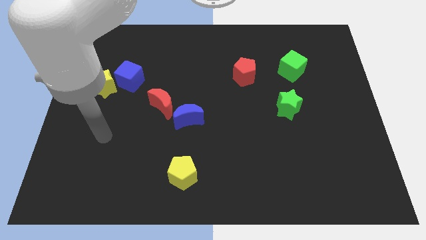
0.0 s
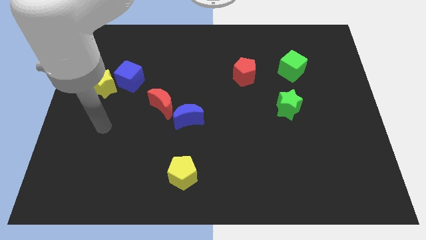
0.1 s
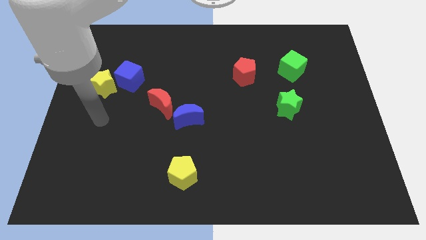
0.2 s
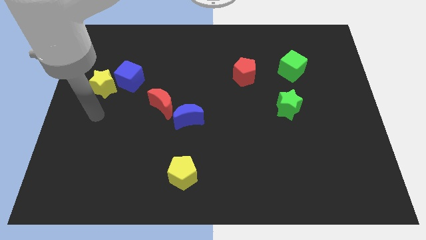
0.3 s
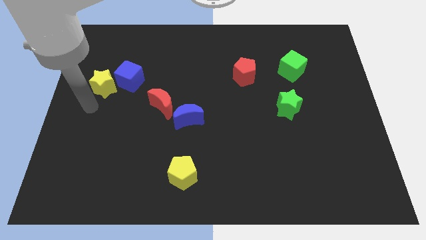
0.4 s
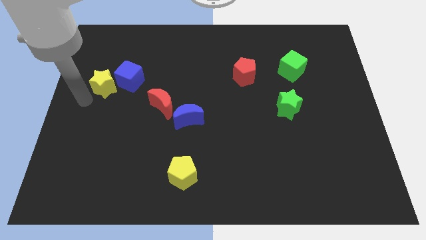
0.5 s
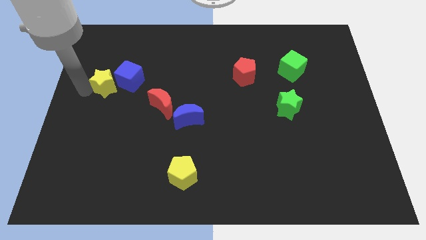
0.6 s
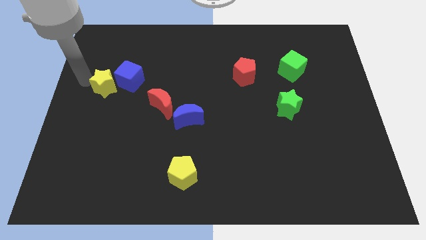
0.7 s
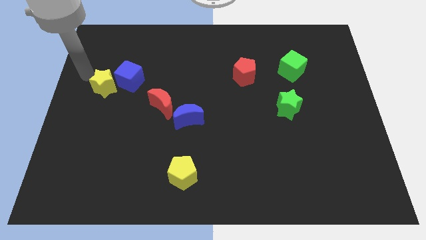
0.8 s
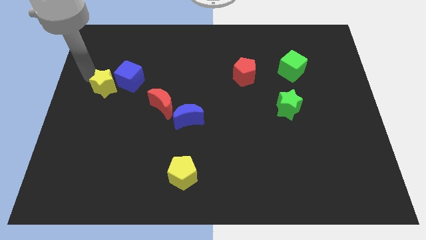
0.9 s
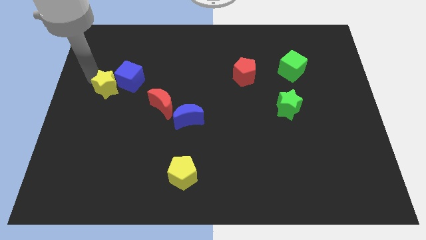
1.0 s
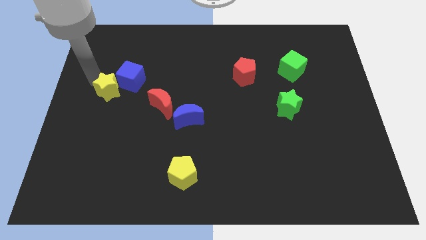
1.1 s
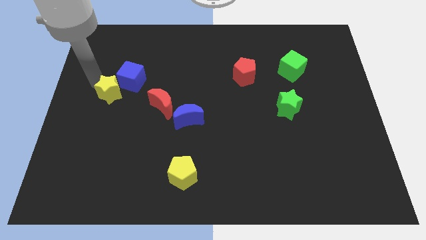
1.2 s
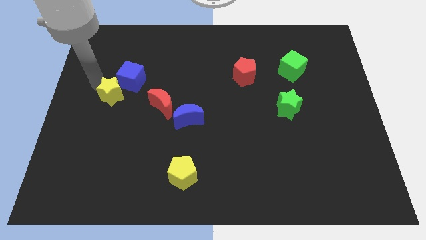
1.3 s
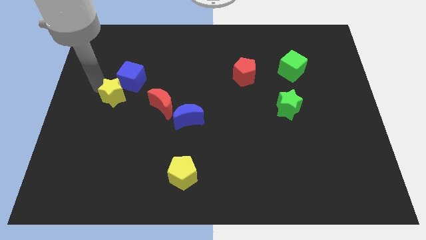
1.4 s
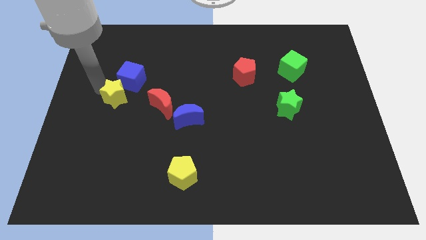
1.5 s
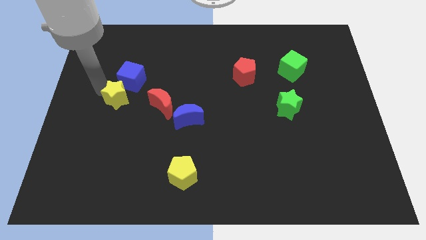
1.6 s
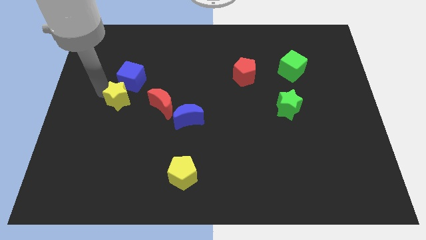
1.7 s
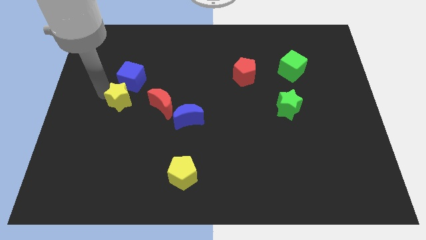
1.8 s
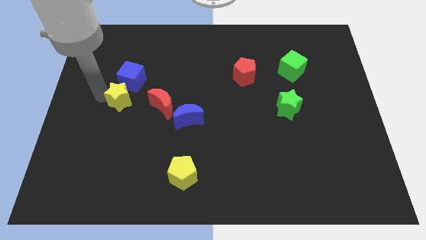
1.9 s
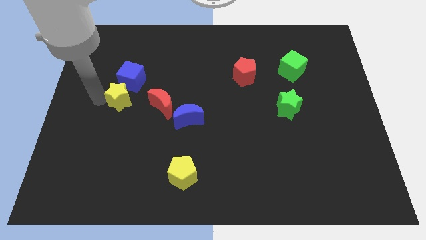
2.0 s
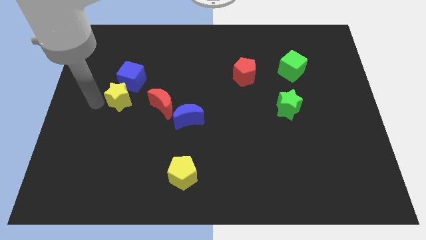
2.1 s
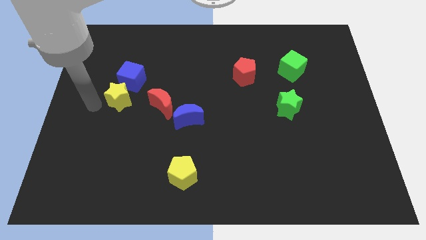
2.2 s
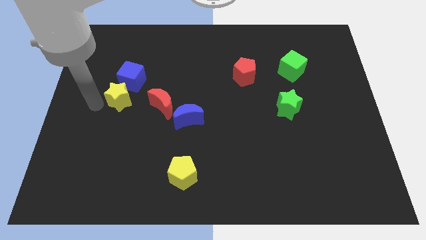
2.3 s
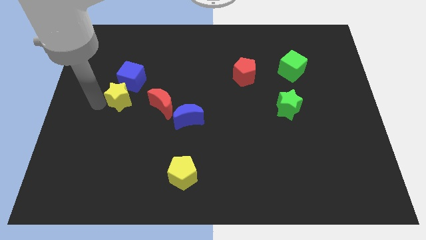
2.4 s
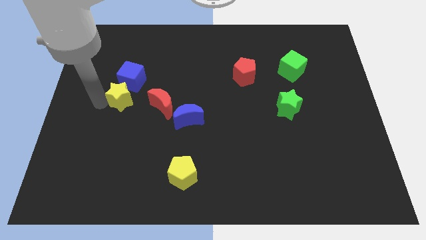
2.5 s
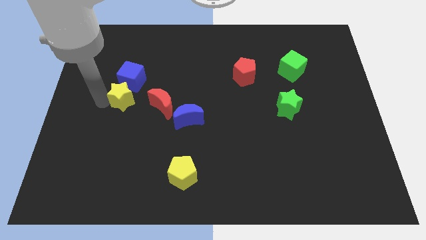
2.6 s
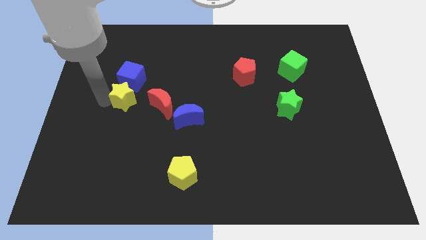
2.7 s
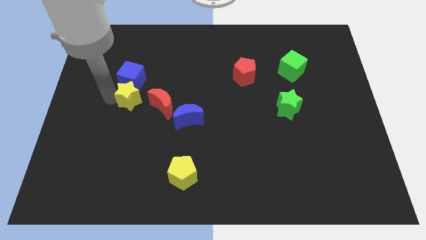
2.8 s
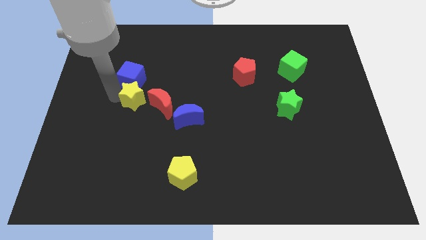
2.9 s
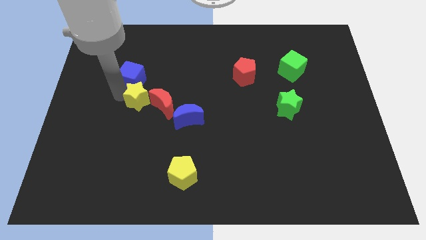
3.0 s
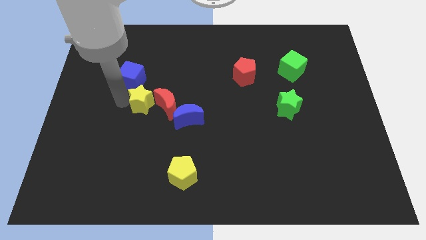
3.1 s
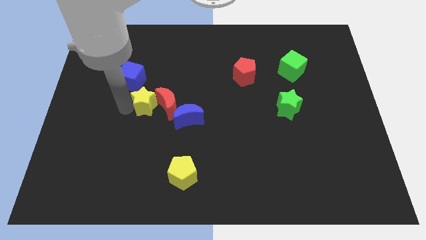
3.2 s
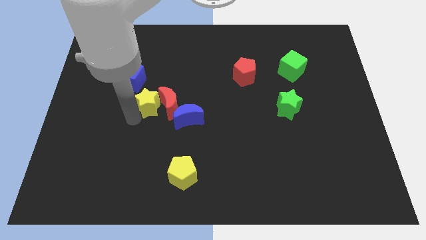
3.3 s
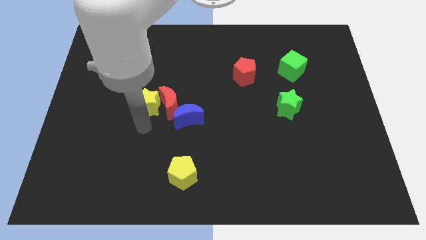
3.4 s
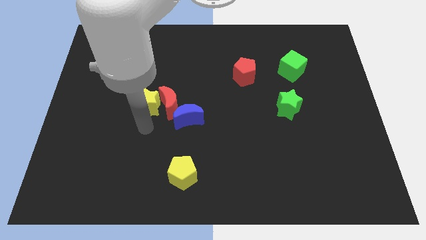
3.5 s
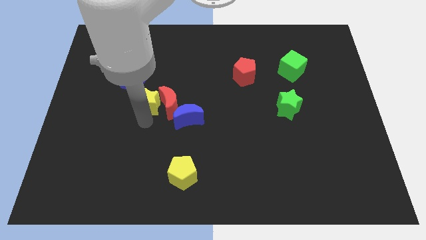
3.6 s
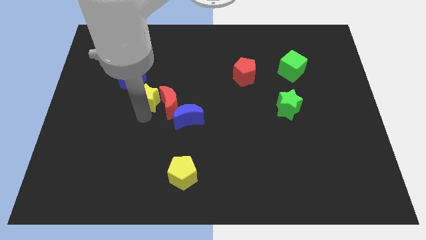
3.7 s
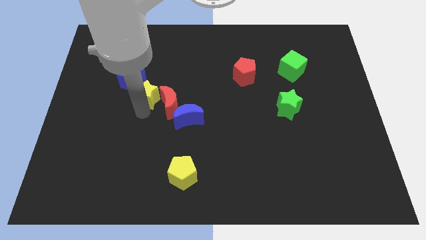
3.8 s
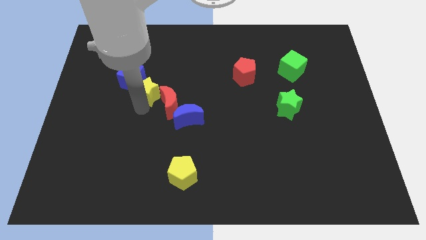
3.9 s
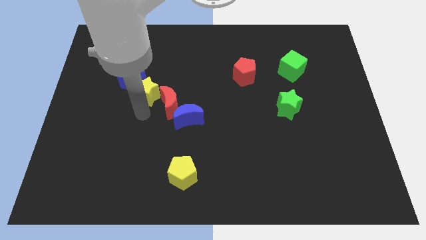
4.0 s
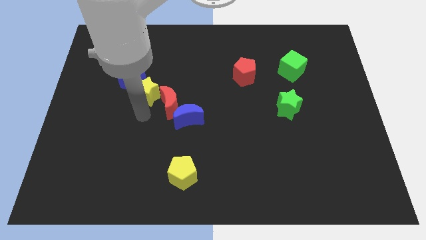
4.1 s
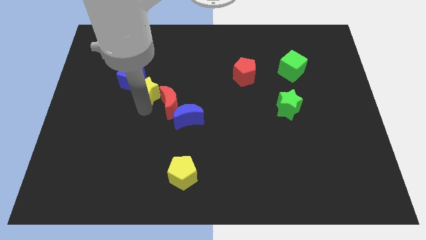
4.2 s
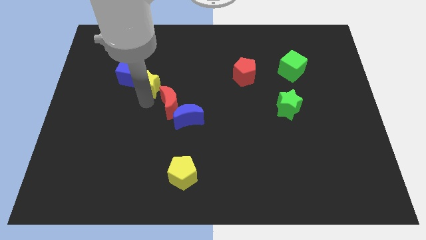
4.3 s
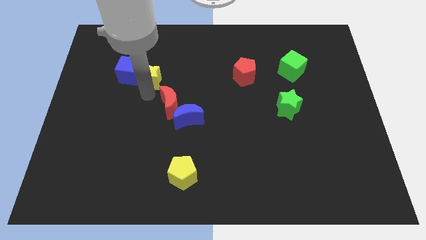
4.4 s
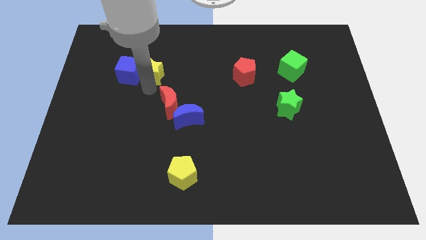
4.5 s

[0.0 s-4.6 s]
push the yellow star diagonally up and to the right of the blue cube

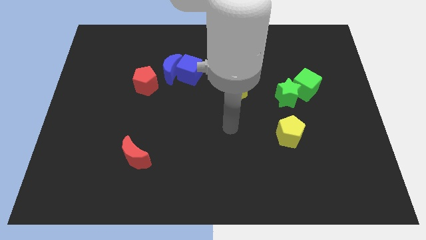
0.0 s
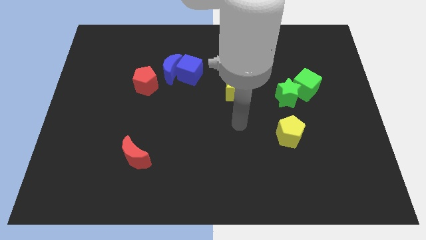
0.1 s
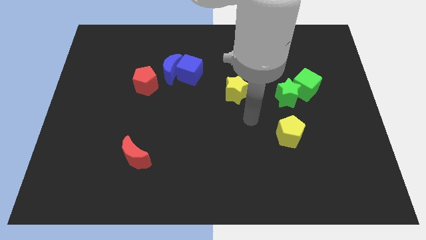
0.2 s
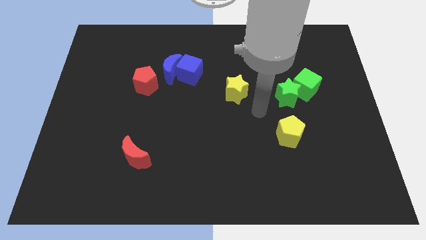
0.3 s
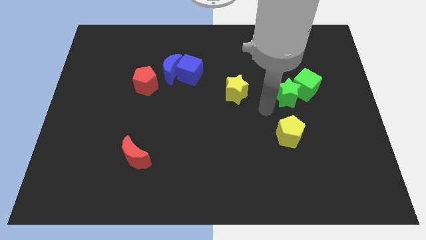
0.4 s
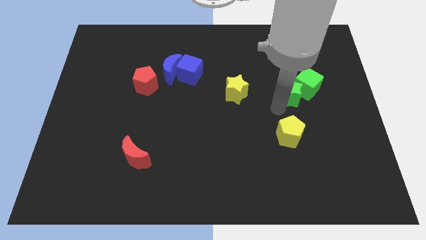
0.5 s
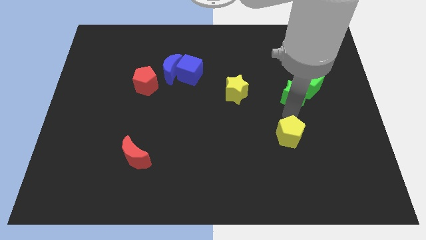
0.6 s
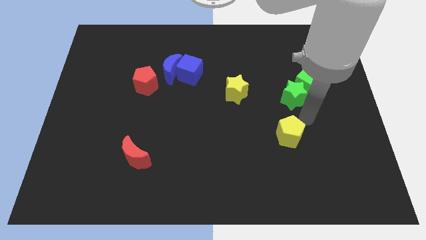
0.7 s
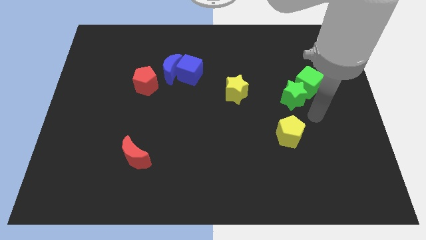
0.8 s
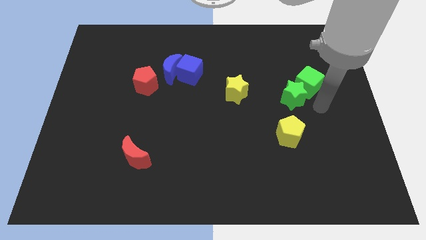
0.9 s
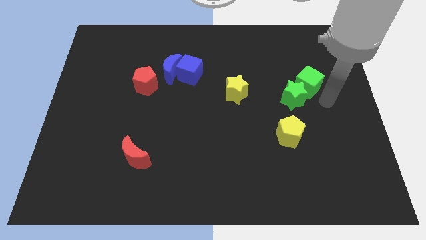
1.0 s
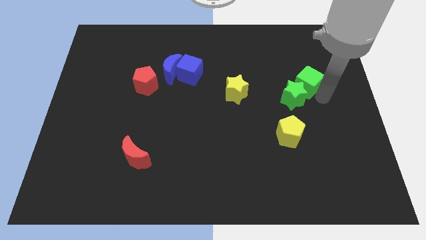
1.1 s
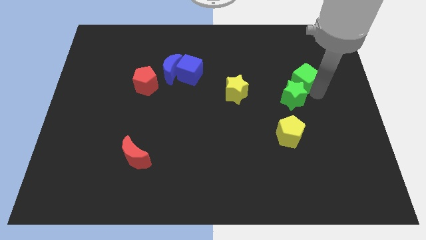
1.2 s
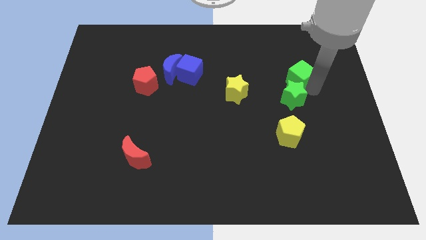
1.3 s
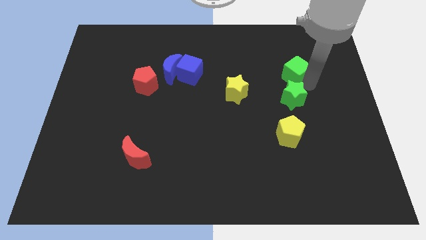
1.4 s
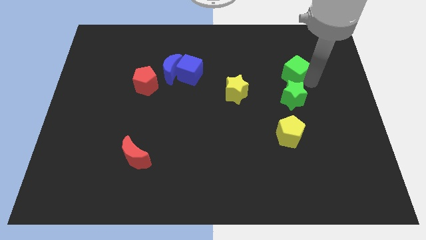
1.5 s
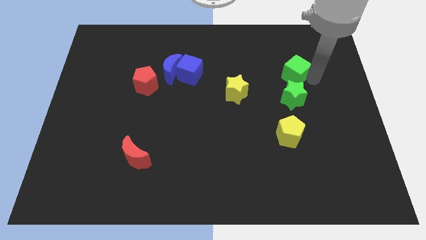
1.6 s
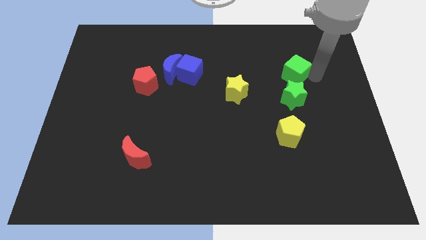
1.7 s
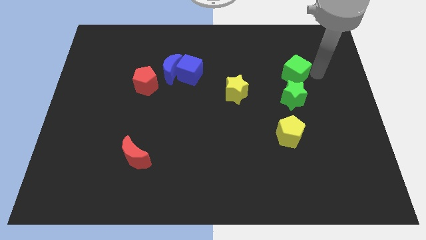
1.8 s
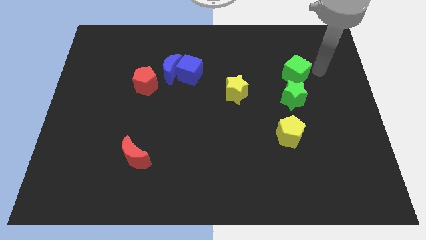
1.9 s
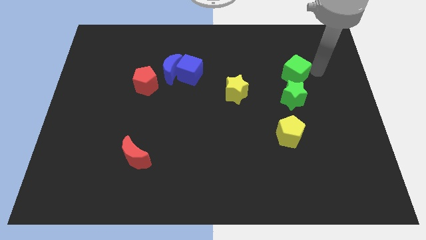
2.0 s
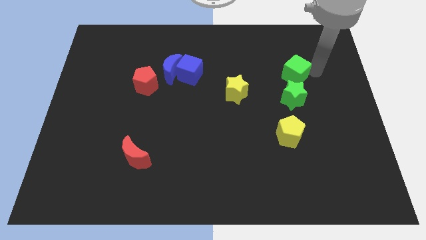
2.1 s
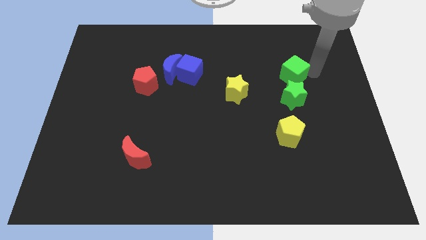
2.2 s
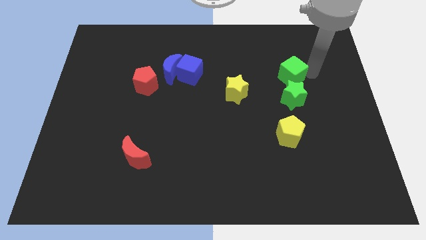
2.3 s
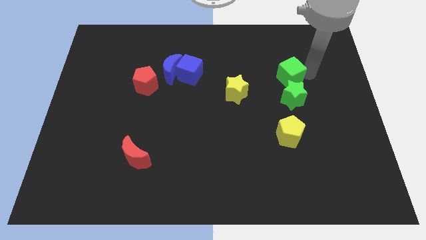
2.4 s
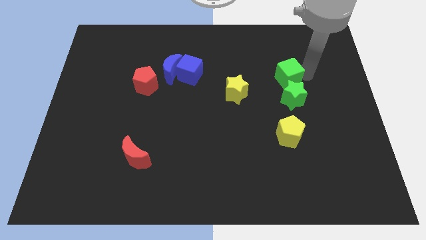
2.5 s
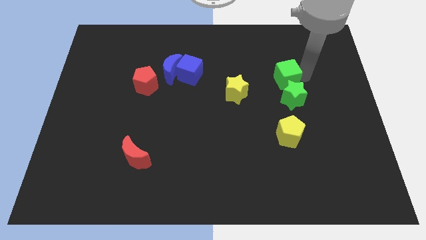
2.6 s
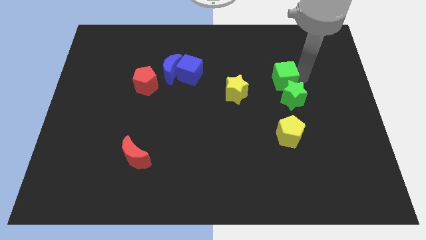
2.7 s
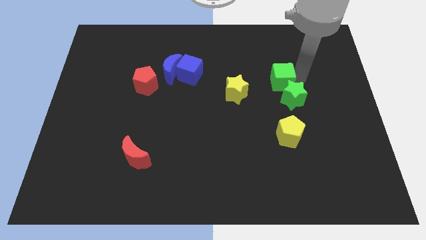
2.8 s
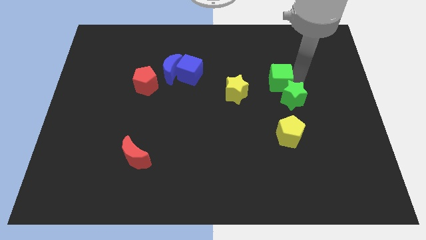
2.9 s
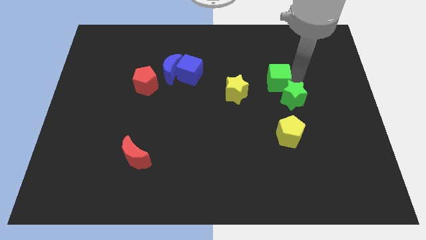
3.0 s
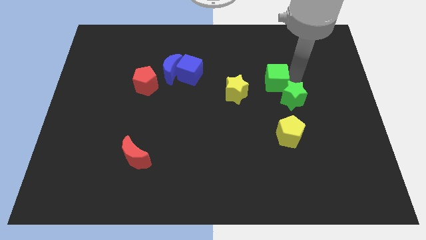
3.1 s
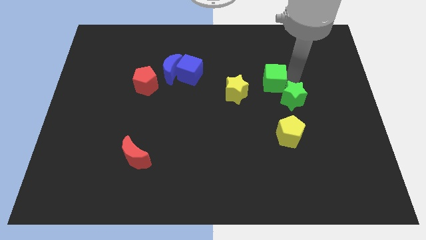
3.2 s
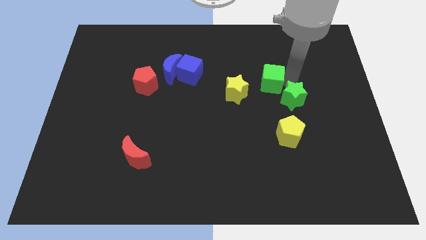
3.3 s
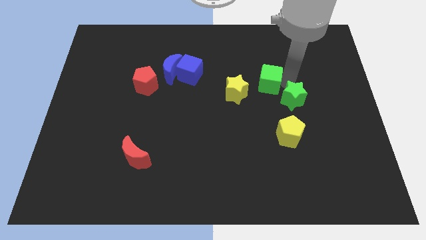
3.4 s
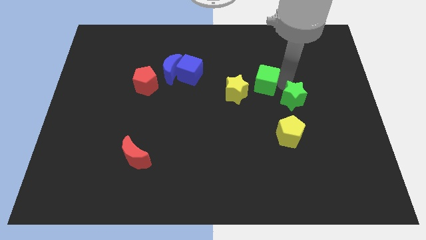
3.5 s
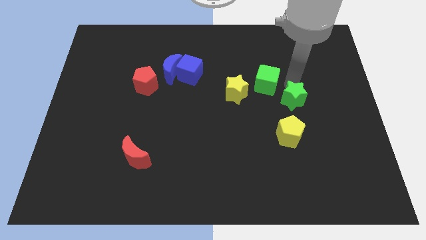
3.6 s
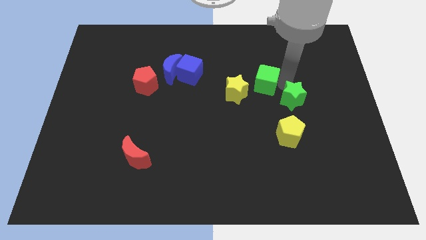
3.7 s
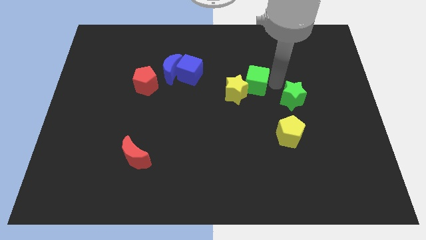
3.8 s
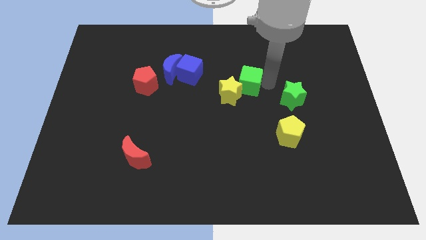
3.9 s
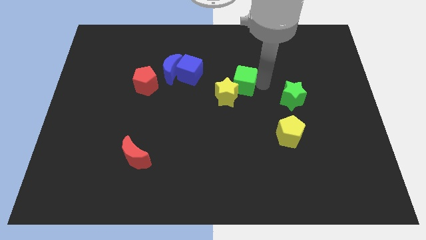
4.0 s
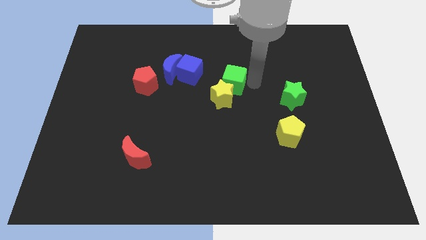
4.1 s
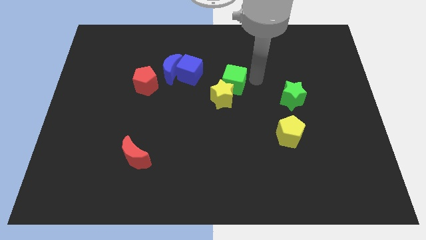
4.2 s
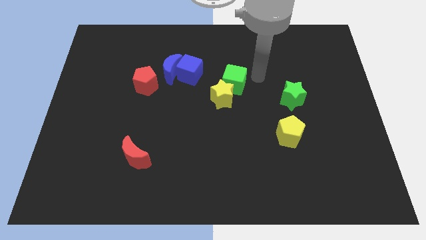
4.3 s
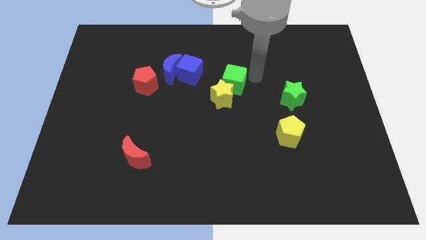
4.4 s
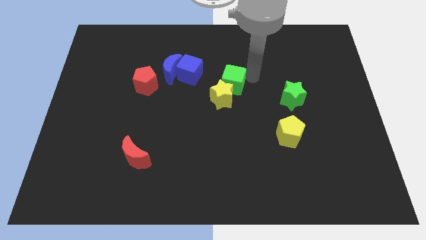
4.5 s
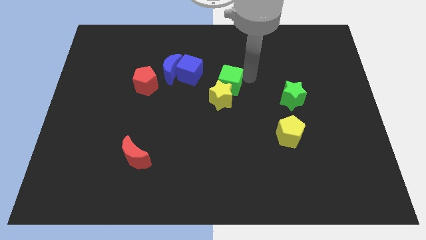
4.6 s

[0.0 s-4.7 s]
slide the green cube diagonally down and to the right of the blue cube
